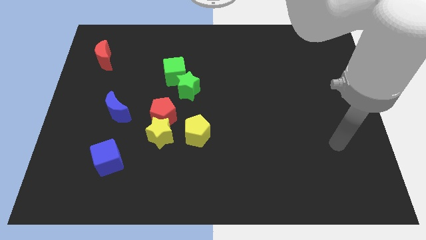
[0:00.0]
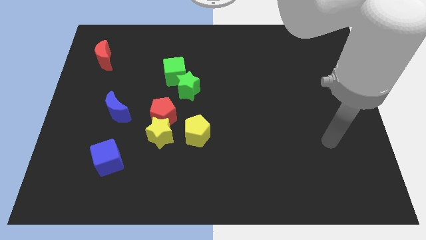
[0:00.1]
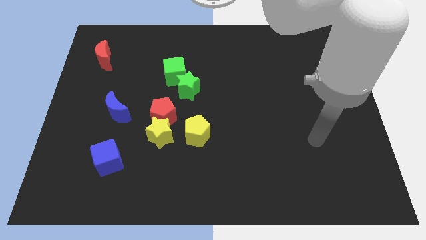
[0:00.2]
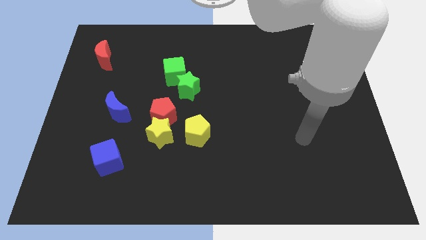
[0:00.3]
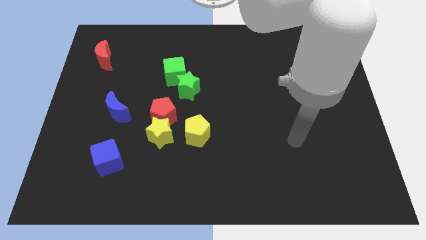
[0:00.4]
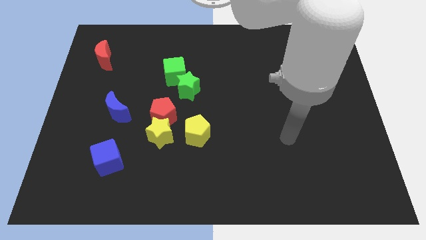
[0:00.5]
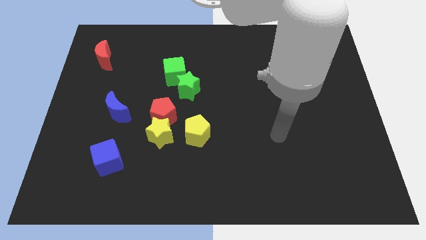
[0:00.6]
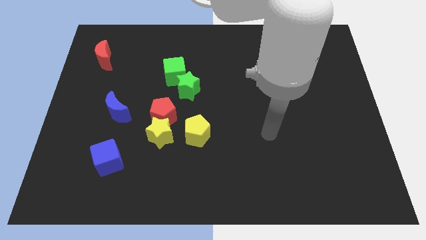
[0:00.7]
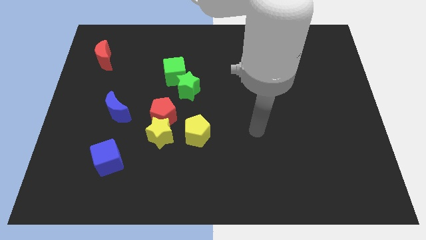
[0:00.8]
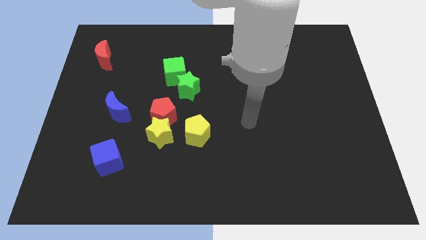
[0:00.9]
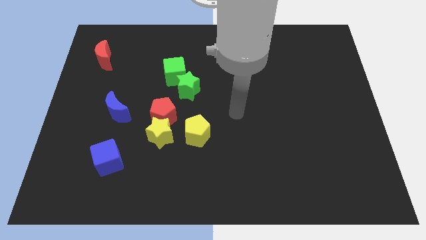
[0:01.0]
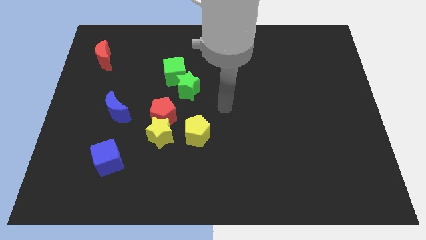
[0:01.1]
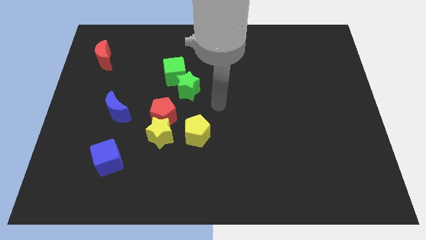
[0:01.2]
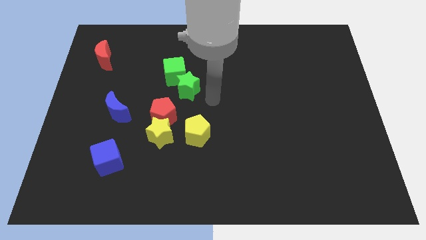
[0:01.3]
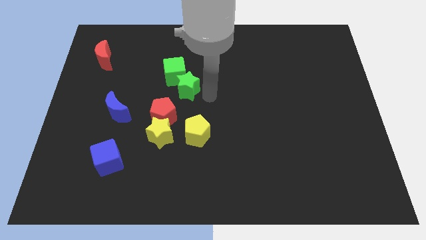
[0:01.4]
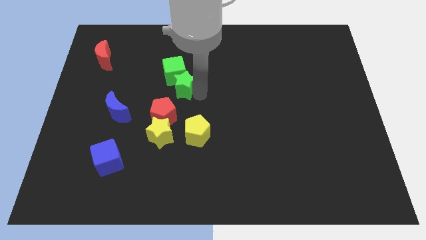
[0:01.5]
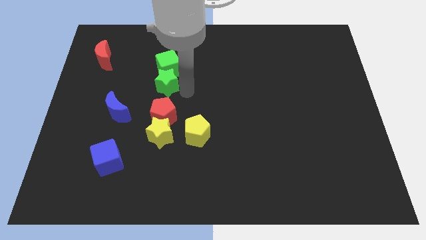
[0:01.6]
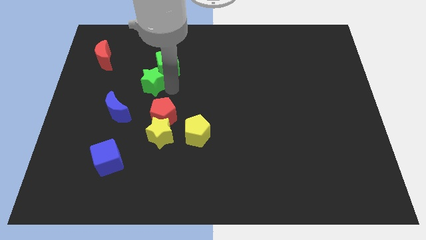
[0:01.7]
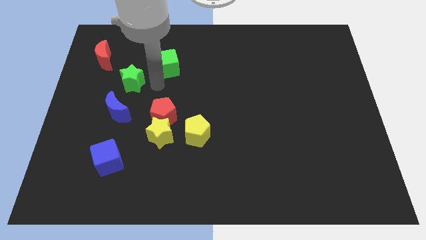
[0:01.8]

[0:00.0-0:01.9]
move the green cube away from the green star

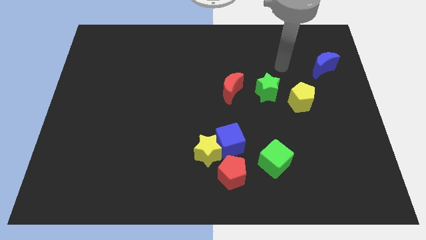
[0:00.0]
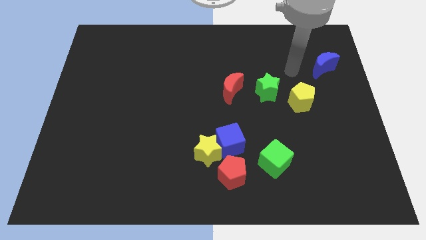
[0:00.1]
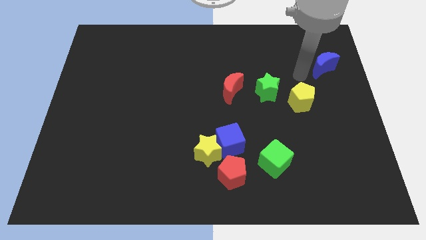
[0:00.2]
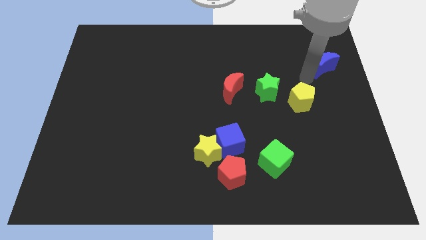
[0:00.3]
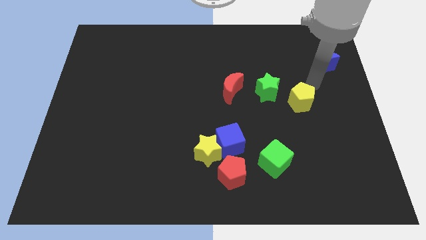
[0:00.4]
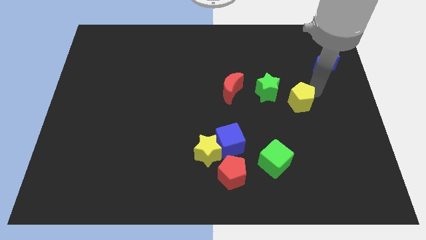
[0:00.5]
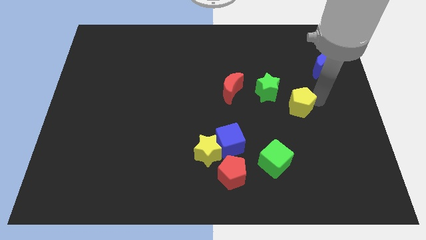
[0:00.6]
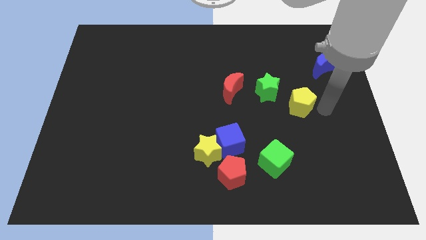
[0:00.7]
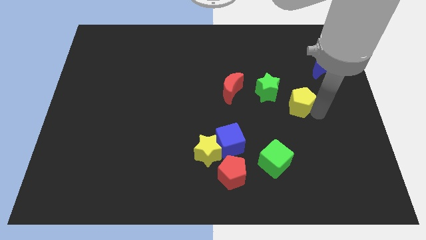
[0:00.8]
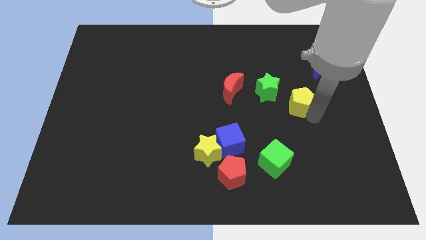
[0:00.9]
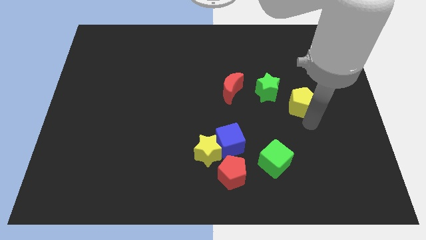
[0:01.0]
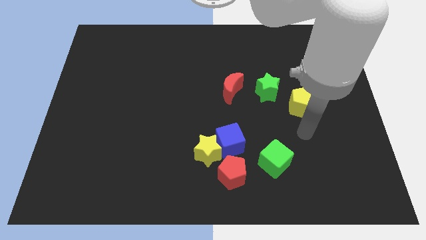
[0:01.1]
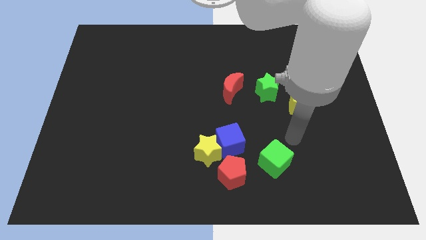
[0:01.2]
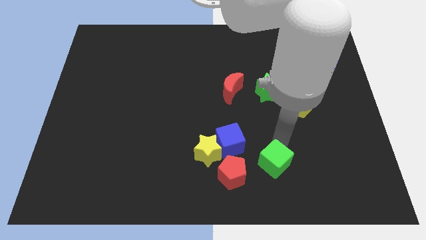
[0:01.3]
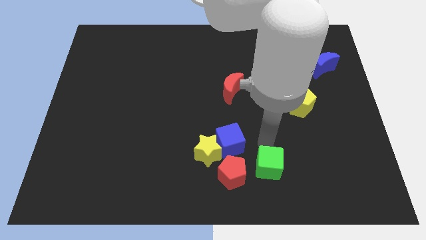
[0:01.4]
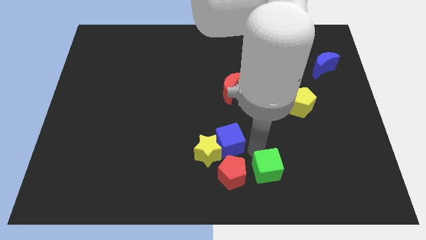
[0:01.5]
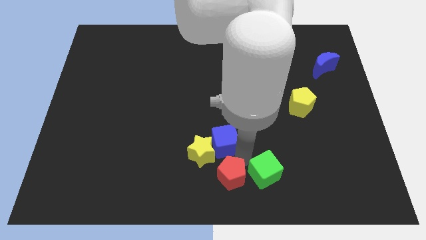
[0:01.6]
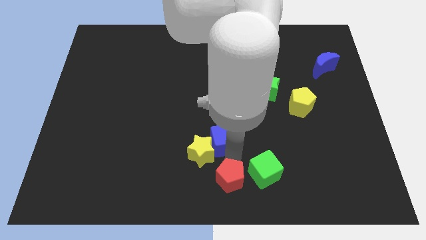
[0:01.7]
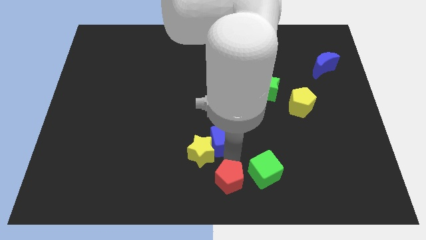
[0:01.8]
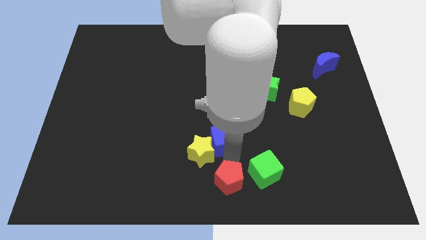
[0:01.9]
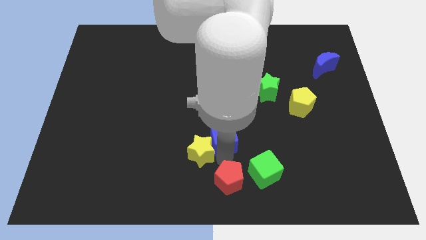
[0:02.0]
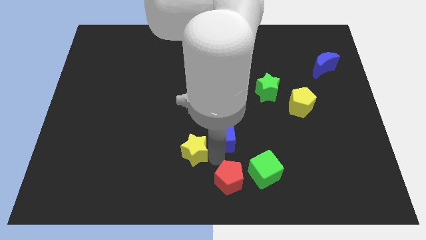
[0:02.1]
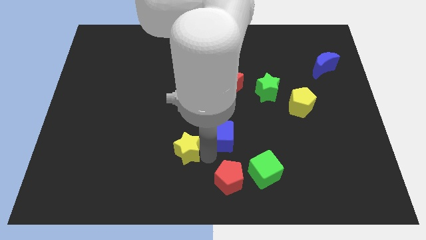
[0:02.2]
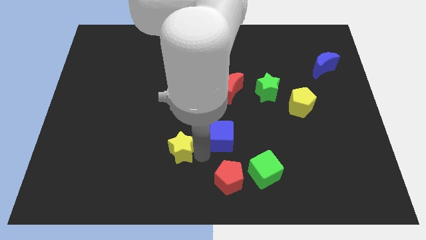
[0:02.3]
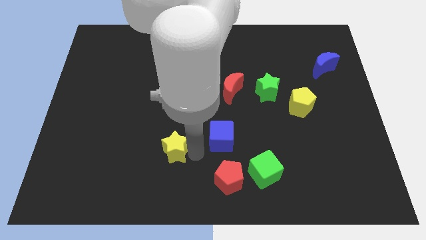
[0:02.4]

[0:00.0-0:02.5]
move the yellow star away from the blue cube and red pentagon

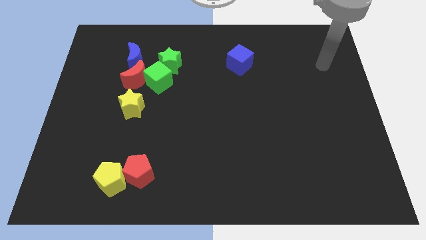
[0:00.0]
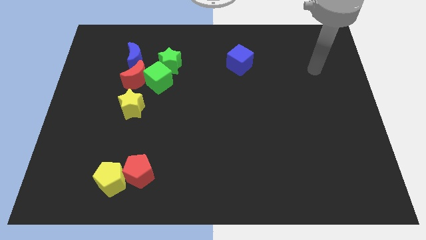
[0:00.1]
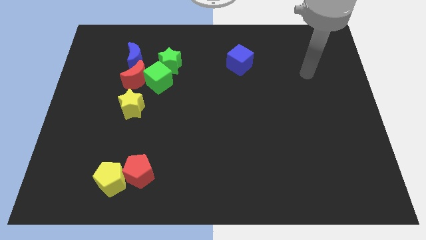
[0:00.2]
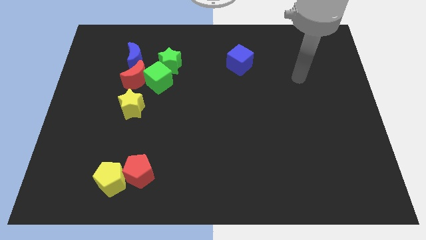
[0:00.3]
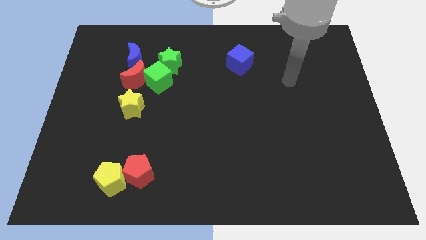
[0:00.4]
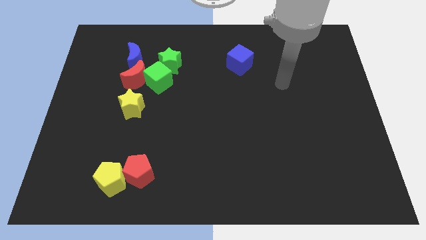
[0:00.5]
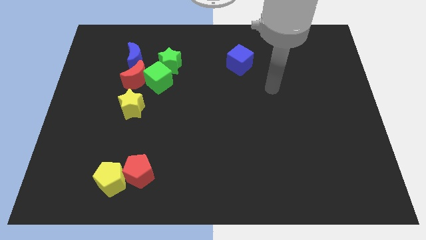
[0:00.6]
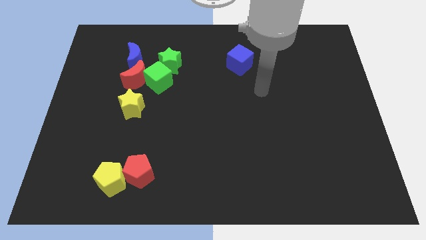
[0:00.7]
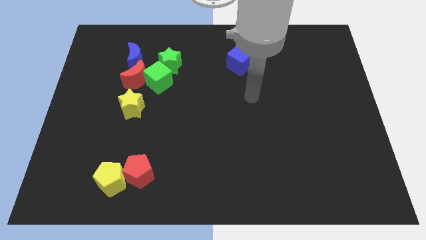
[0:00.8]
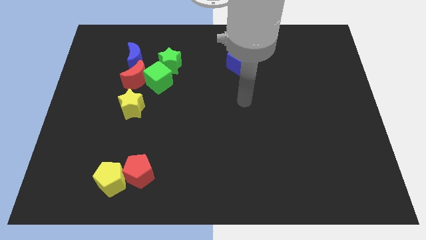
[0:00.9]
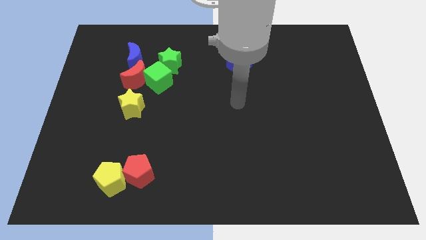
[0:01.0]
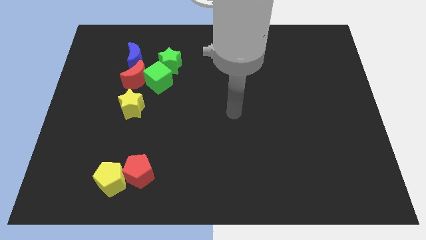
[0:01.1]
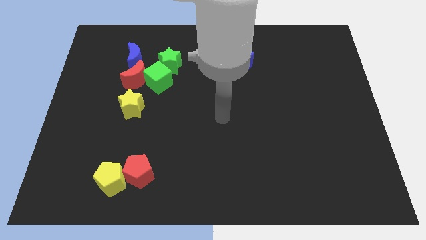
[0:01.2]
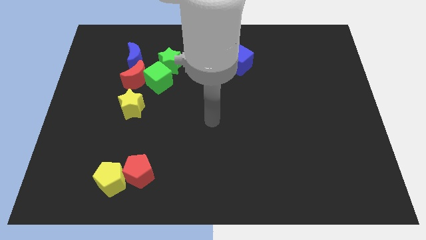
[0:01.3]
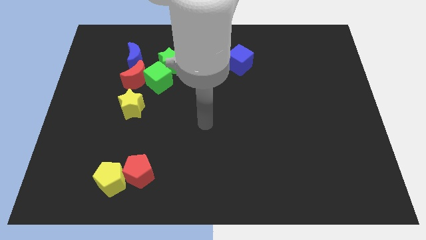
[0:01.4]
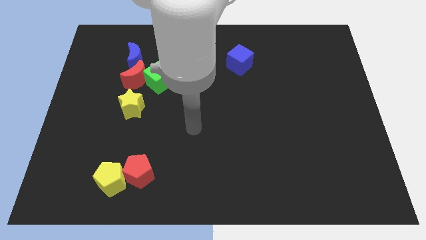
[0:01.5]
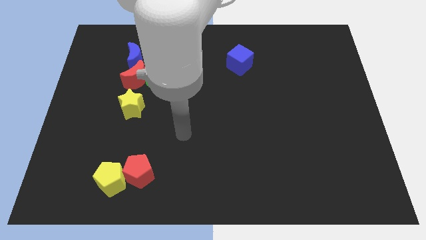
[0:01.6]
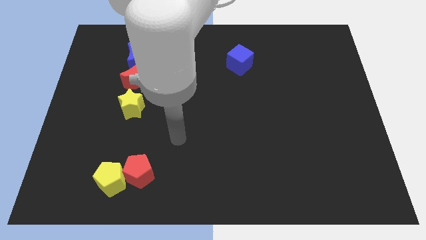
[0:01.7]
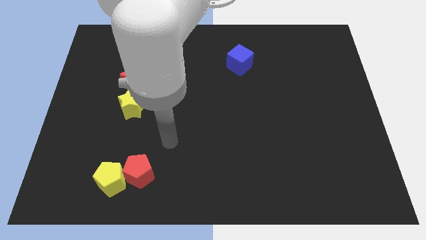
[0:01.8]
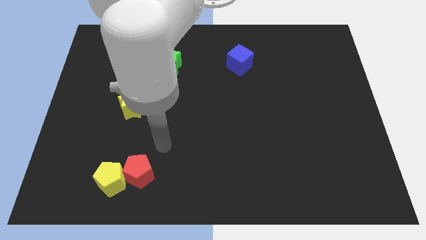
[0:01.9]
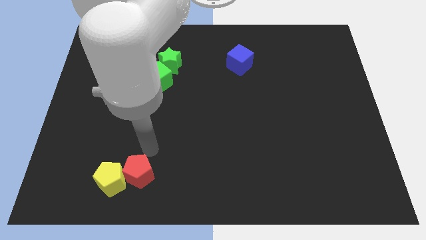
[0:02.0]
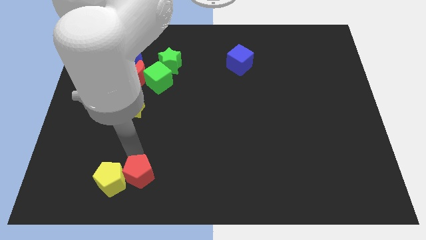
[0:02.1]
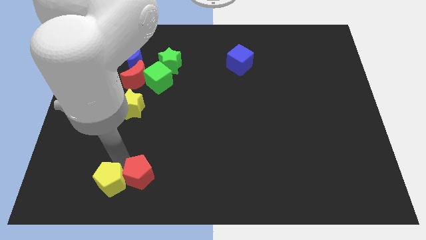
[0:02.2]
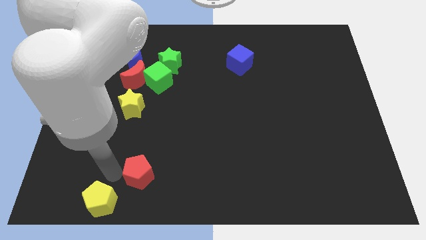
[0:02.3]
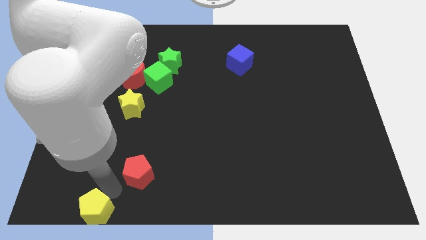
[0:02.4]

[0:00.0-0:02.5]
separate the red pentagon from the yellow pentagon

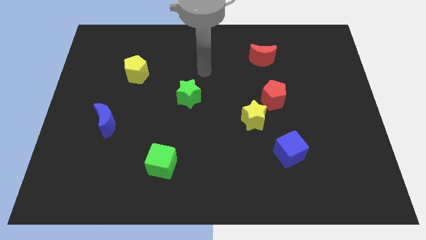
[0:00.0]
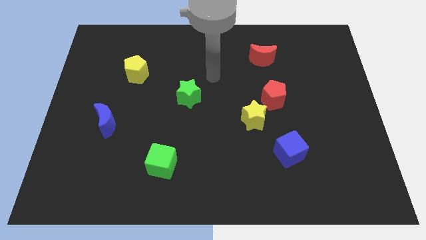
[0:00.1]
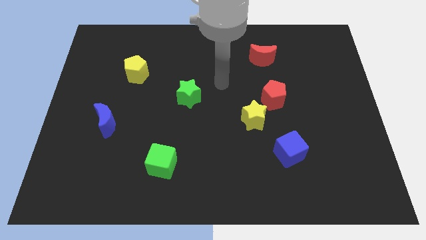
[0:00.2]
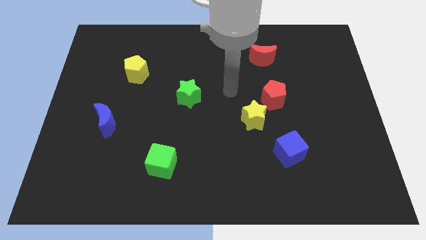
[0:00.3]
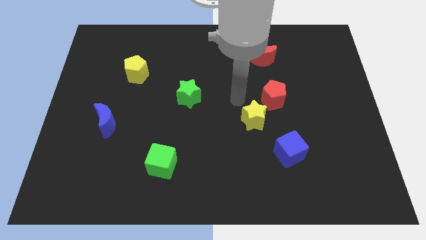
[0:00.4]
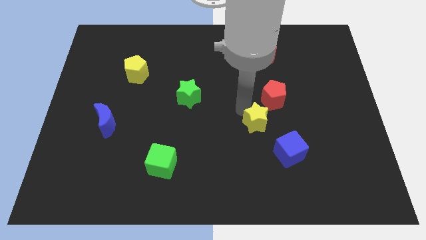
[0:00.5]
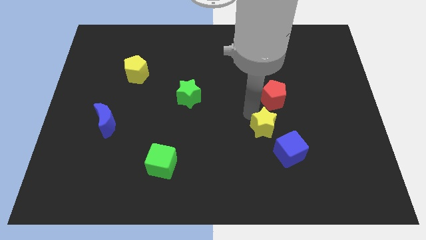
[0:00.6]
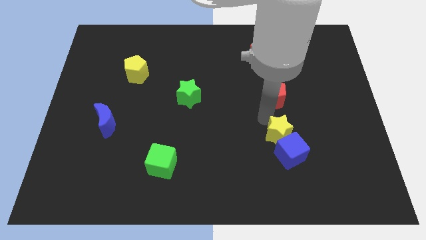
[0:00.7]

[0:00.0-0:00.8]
move the red pentagon away from the yellow star

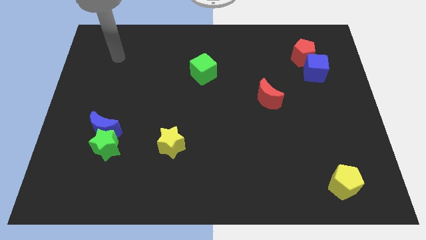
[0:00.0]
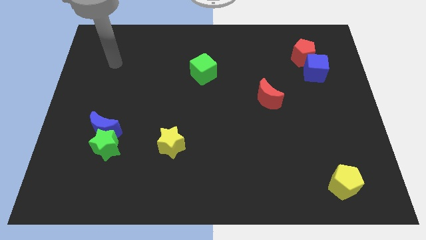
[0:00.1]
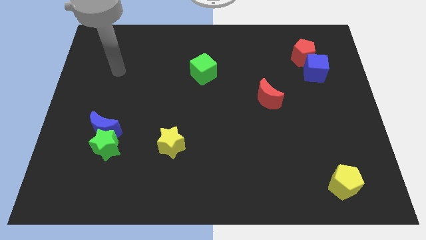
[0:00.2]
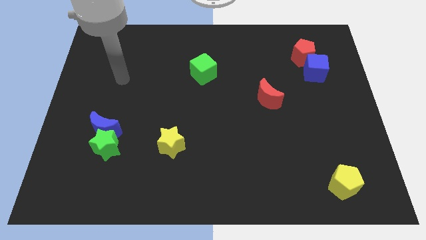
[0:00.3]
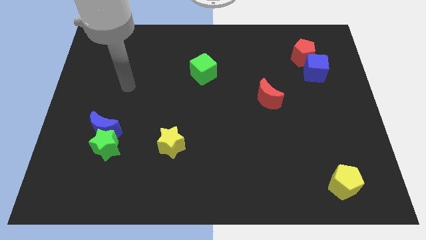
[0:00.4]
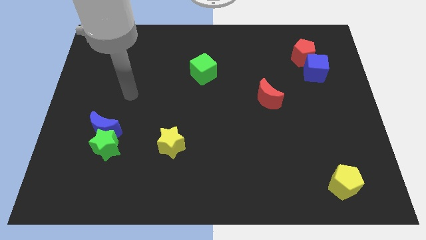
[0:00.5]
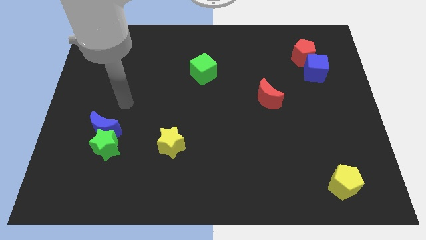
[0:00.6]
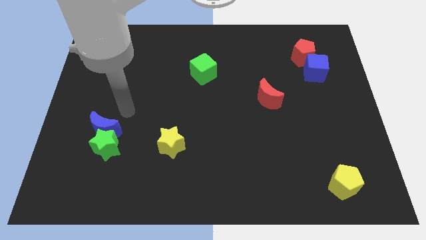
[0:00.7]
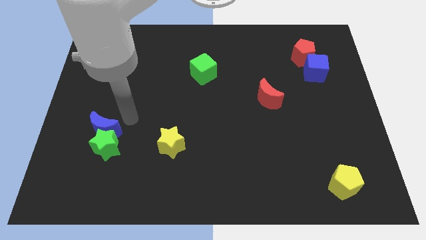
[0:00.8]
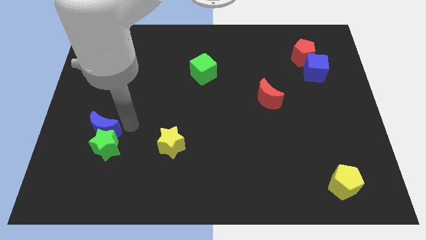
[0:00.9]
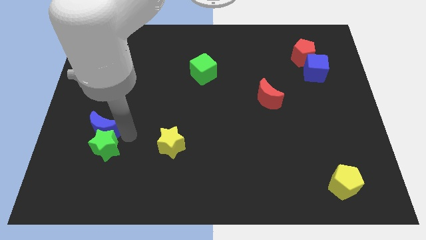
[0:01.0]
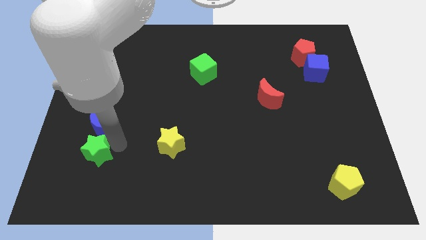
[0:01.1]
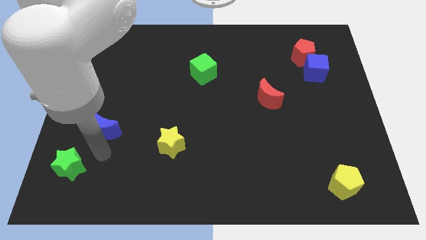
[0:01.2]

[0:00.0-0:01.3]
move the blue moon away from the green star

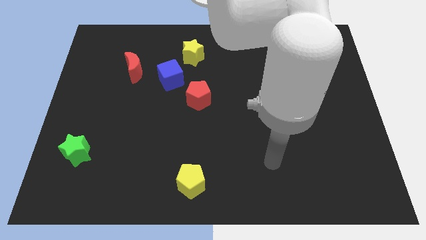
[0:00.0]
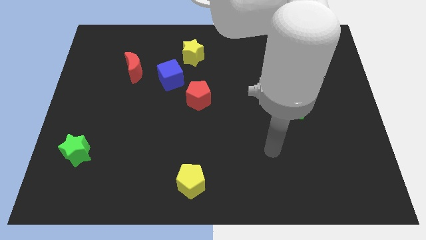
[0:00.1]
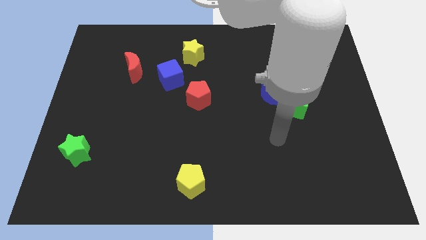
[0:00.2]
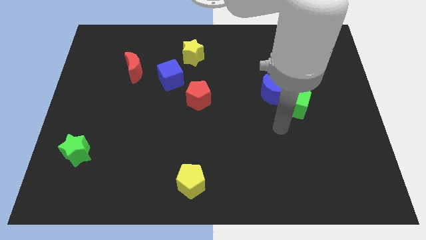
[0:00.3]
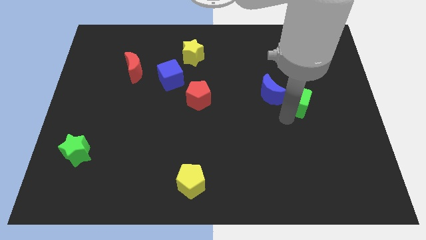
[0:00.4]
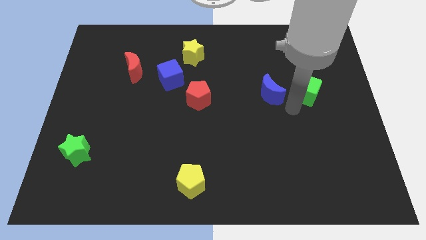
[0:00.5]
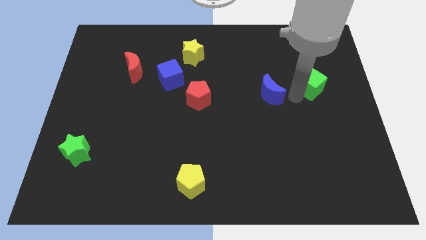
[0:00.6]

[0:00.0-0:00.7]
pull the blue moon apart from the green cube
